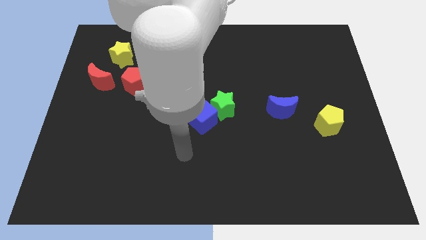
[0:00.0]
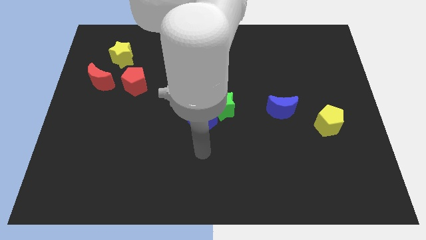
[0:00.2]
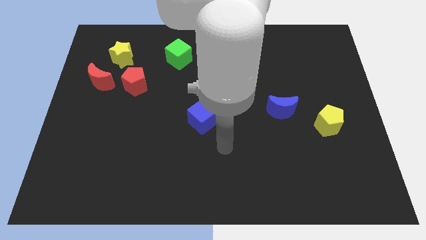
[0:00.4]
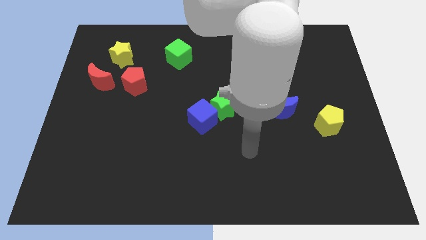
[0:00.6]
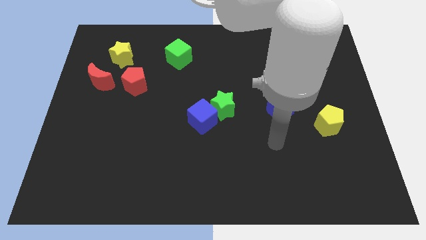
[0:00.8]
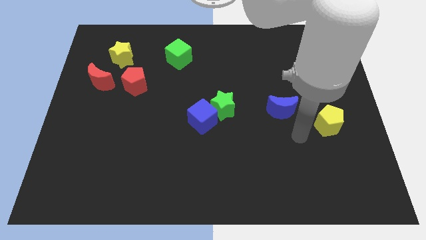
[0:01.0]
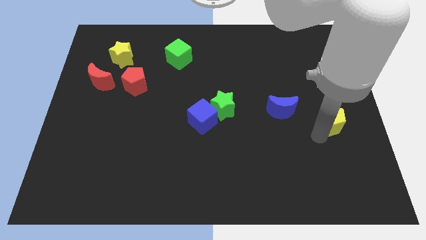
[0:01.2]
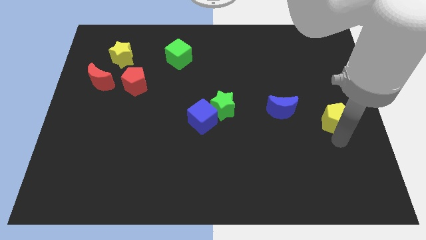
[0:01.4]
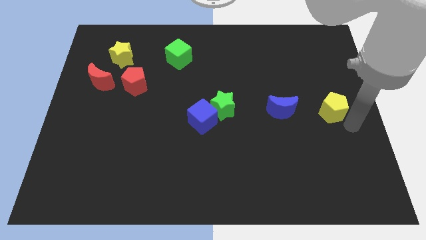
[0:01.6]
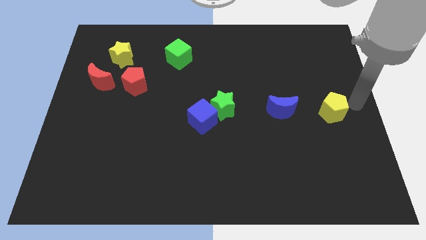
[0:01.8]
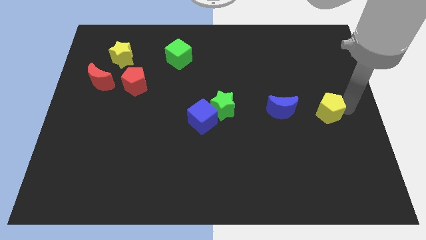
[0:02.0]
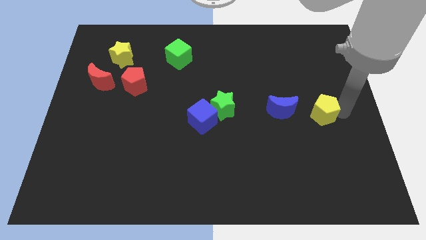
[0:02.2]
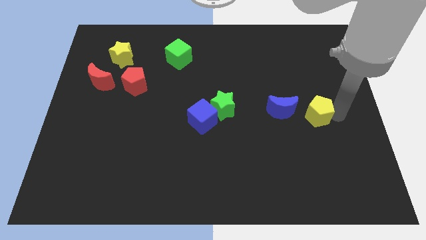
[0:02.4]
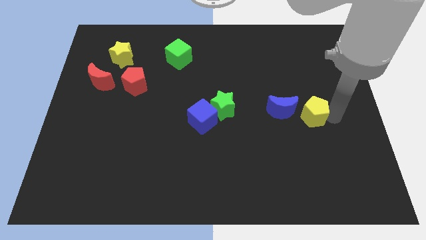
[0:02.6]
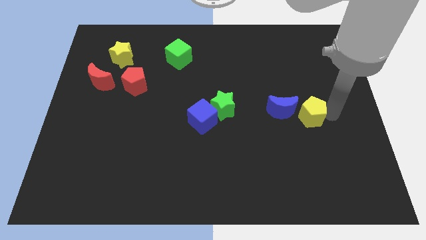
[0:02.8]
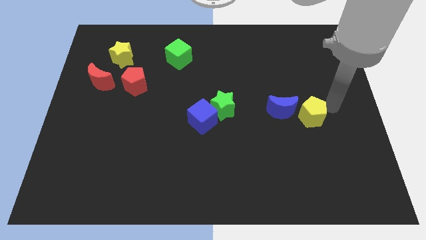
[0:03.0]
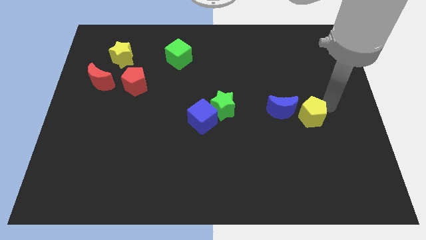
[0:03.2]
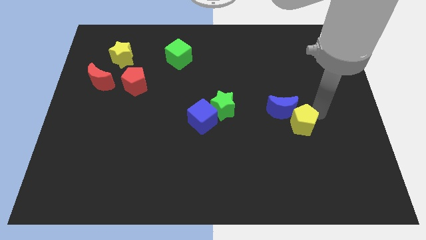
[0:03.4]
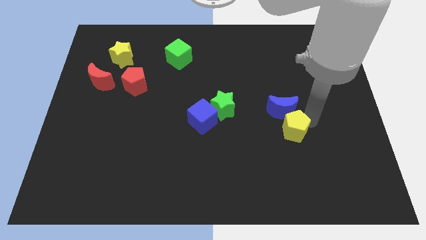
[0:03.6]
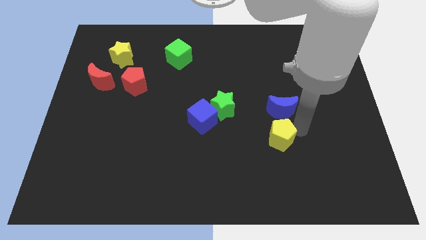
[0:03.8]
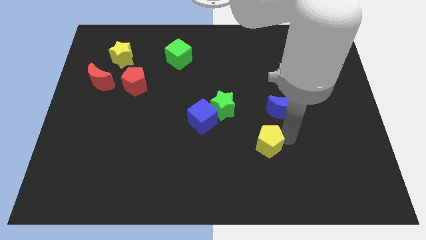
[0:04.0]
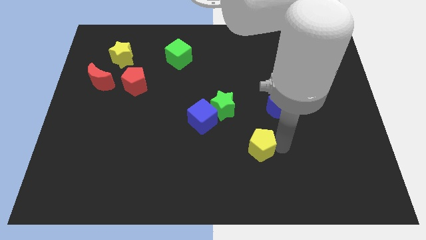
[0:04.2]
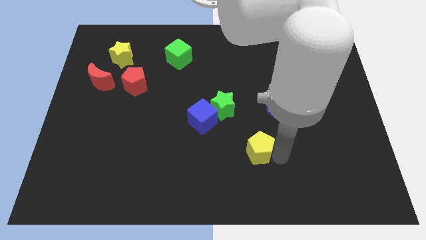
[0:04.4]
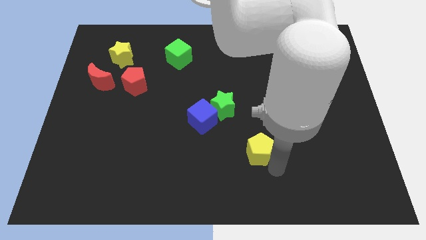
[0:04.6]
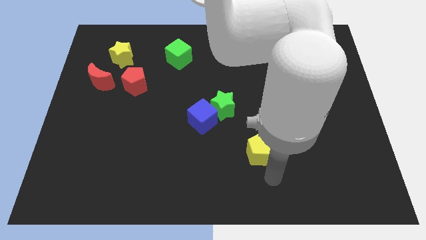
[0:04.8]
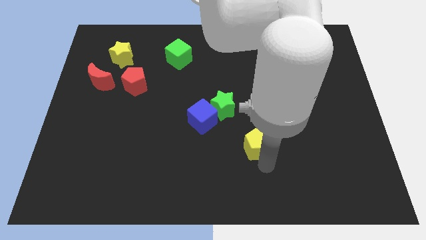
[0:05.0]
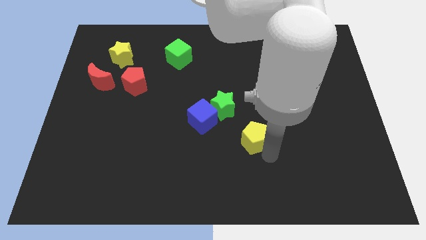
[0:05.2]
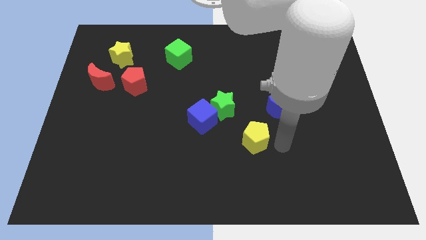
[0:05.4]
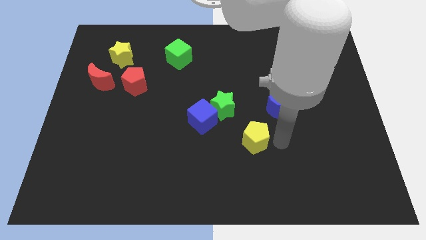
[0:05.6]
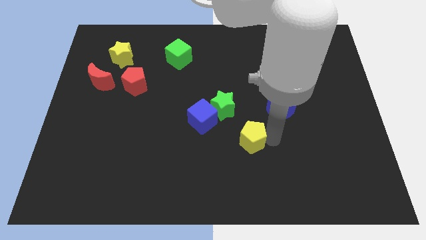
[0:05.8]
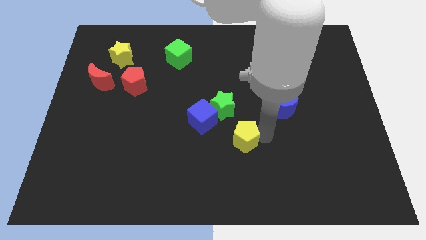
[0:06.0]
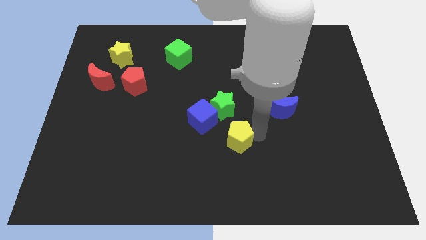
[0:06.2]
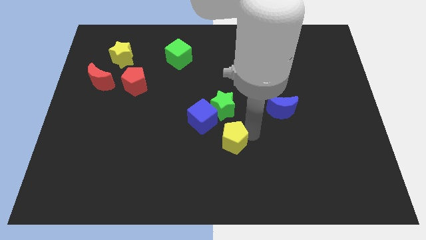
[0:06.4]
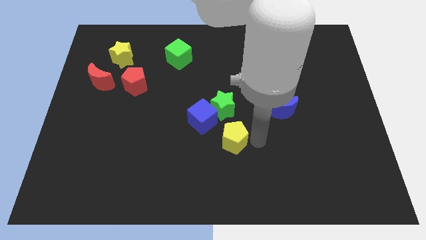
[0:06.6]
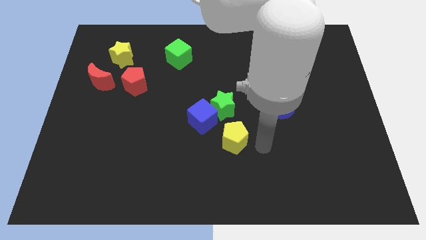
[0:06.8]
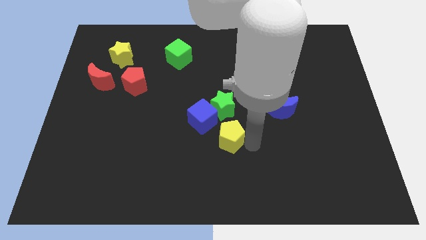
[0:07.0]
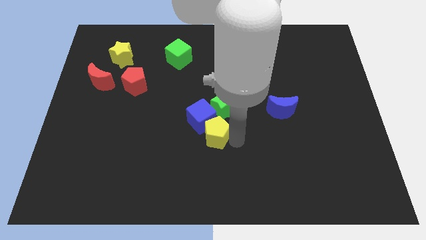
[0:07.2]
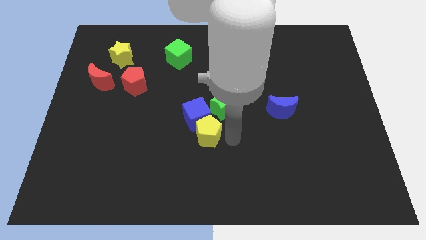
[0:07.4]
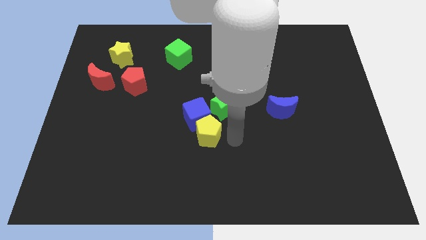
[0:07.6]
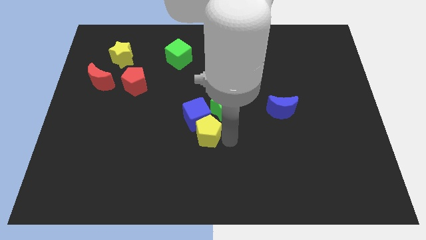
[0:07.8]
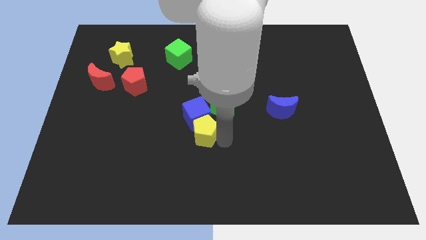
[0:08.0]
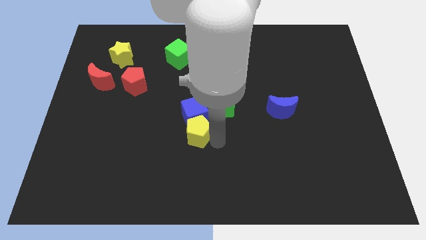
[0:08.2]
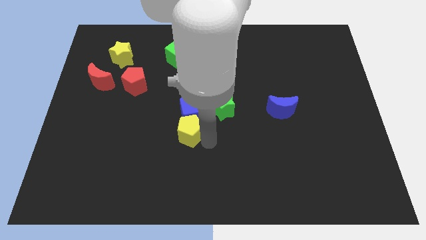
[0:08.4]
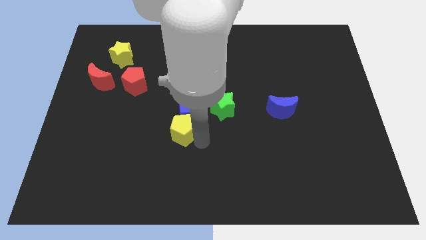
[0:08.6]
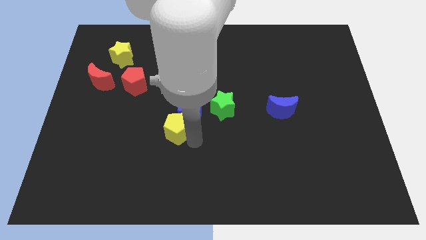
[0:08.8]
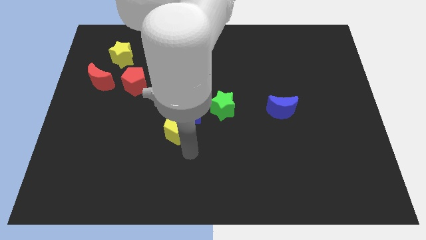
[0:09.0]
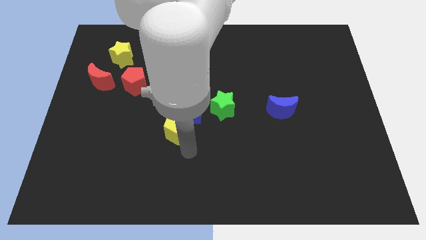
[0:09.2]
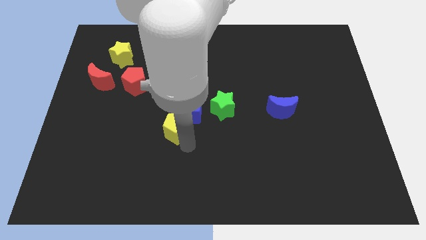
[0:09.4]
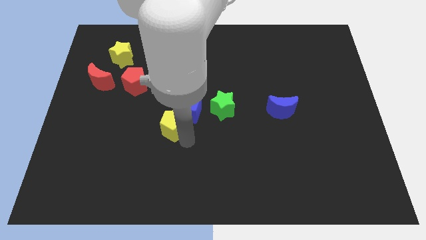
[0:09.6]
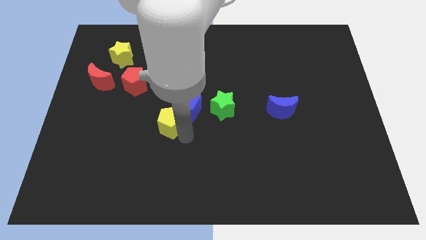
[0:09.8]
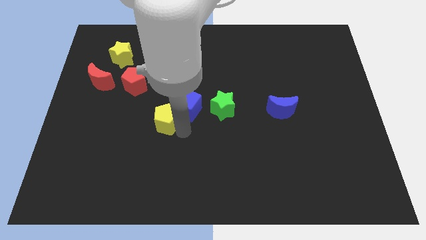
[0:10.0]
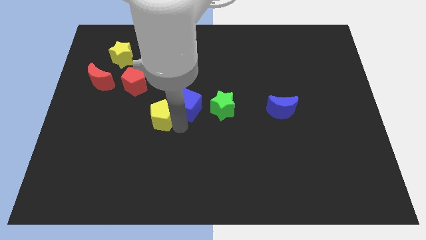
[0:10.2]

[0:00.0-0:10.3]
slide the yellow pentagon diagonally down and to the right of the red pentagon

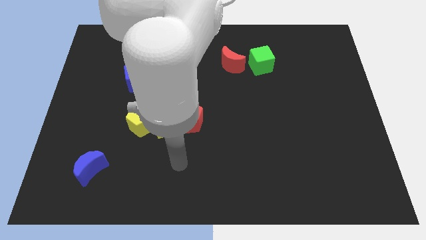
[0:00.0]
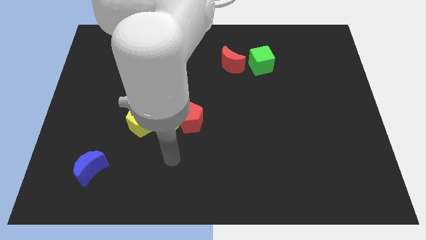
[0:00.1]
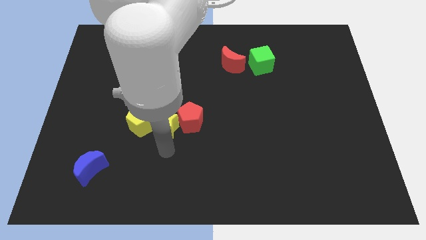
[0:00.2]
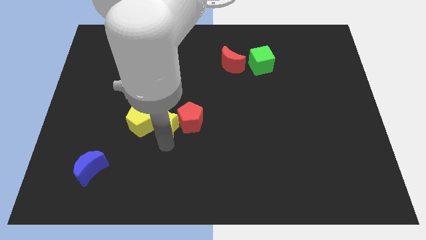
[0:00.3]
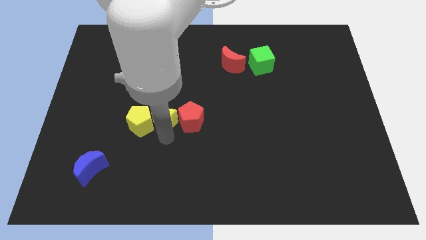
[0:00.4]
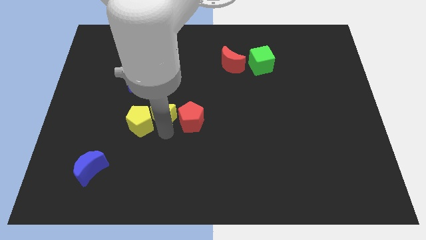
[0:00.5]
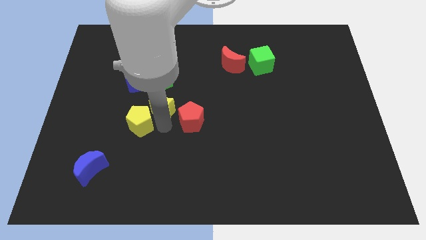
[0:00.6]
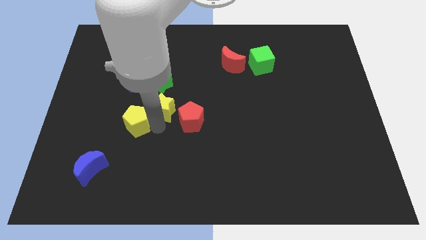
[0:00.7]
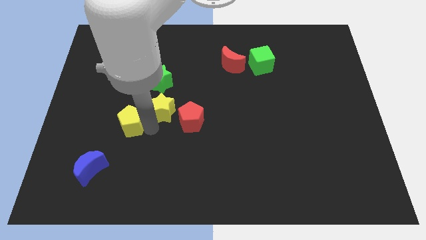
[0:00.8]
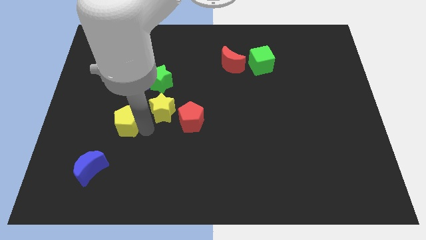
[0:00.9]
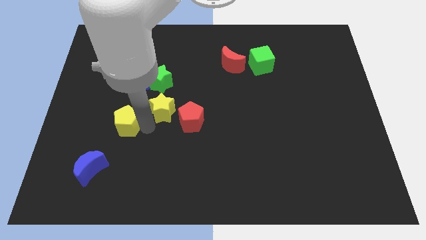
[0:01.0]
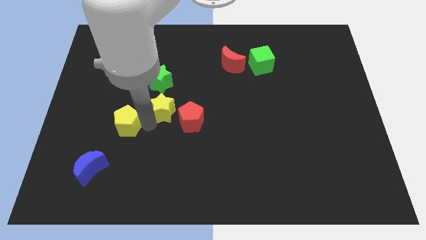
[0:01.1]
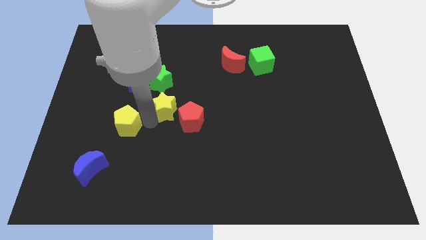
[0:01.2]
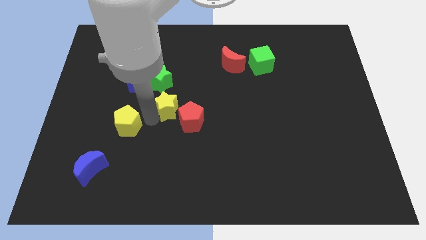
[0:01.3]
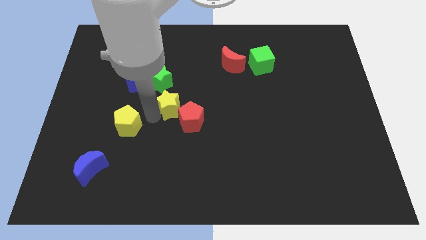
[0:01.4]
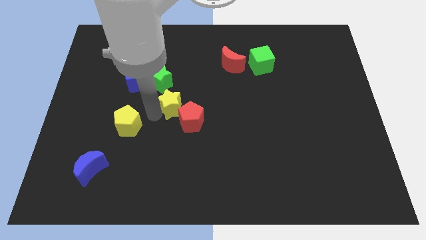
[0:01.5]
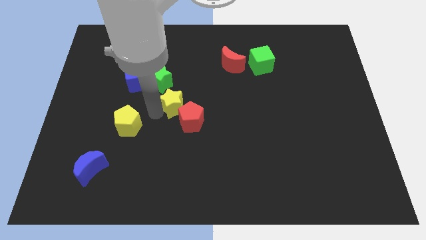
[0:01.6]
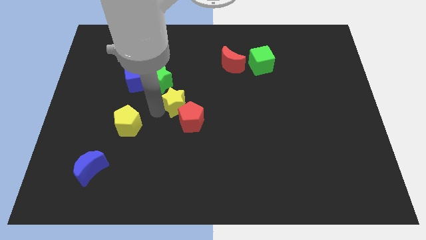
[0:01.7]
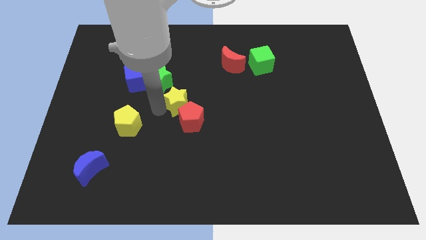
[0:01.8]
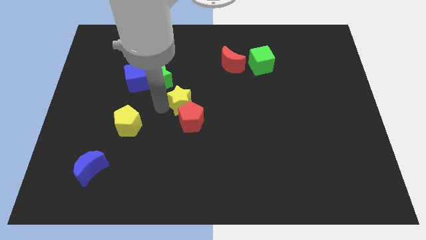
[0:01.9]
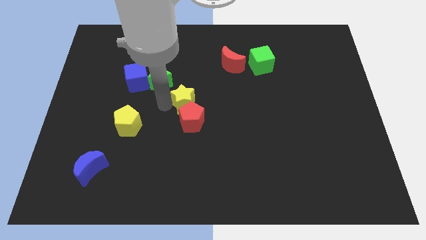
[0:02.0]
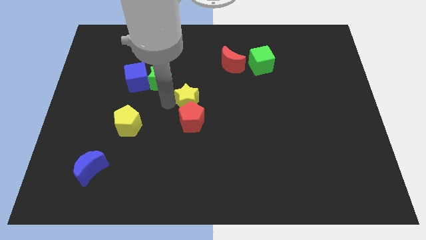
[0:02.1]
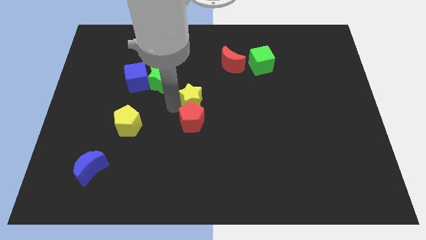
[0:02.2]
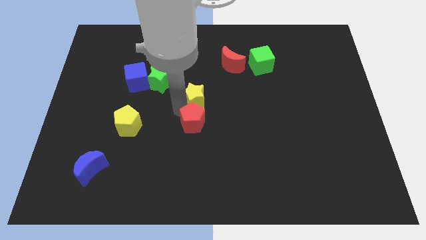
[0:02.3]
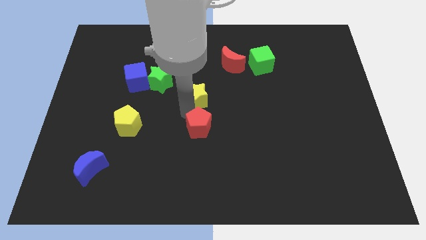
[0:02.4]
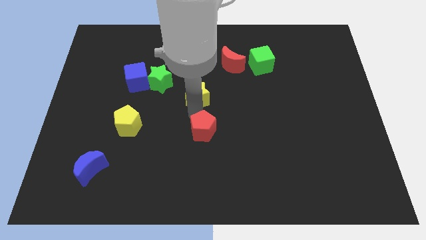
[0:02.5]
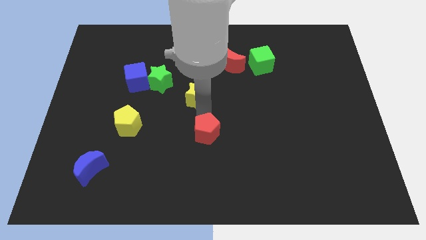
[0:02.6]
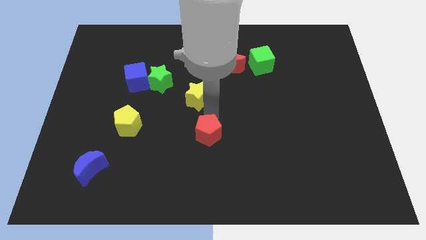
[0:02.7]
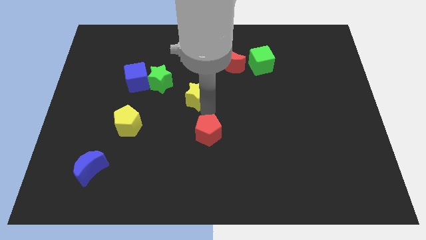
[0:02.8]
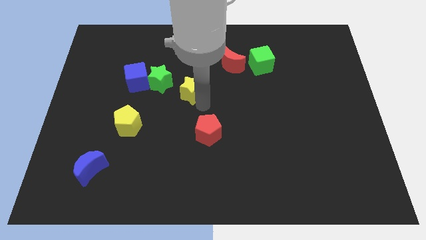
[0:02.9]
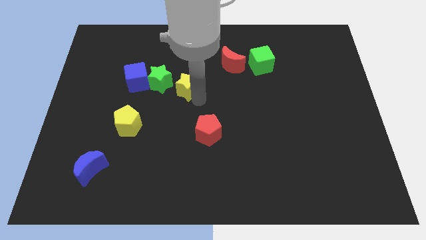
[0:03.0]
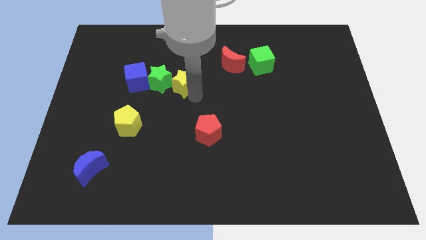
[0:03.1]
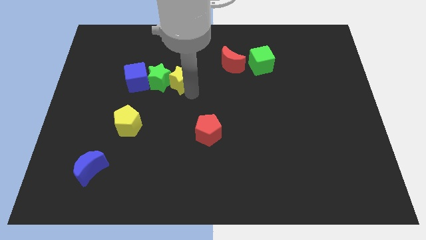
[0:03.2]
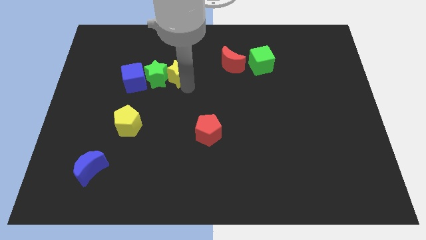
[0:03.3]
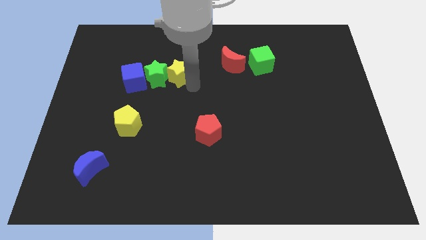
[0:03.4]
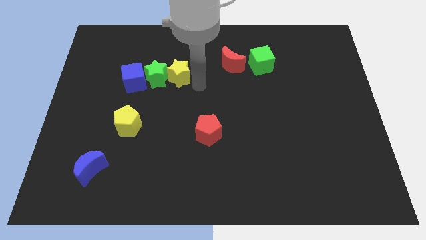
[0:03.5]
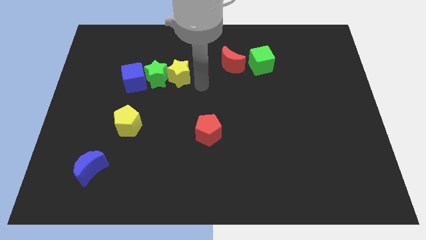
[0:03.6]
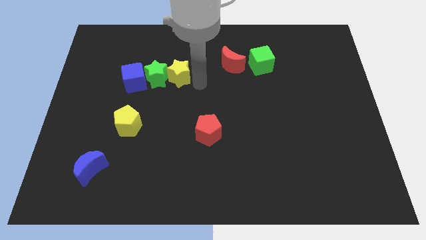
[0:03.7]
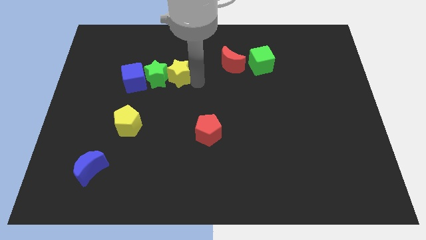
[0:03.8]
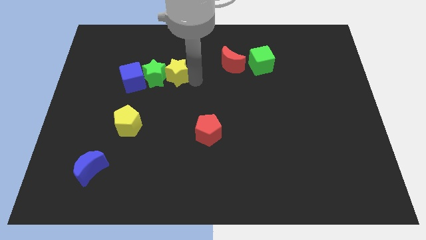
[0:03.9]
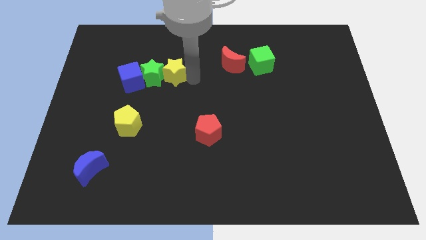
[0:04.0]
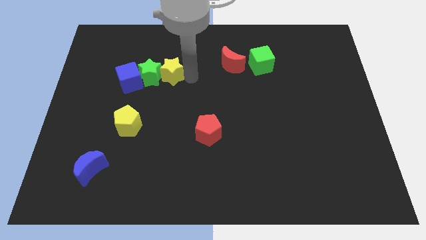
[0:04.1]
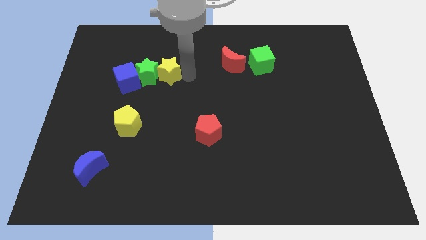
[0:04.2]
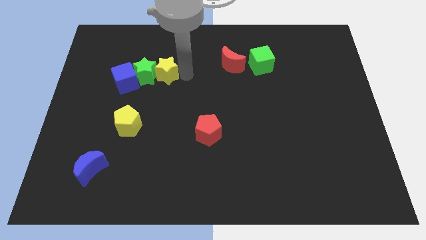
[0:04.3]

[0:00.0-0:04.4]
move the yellow star to the top right of the blue cube
